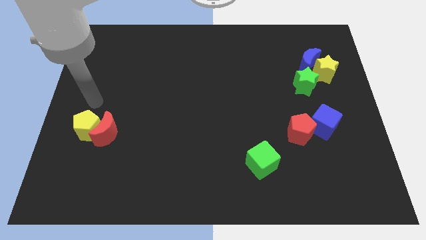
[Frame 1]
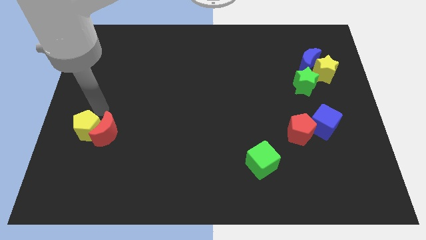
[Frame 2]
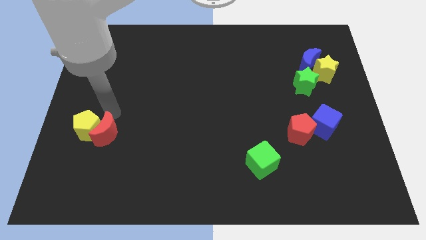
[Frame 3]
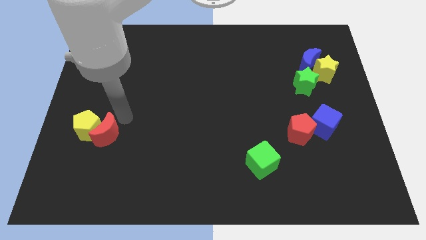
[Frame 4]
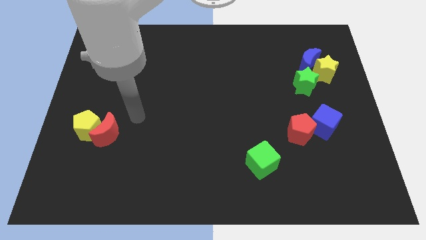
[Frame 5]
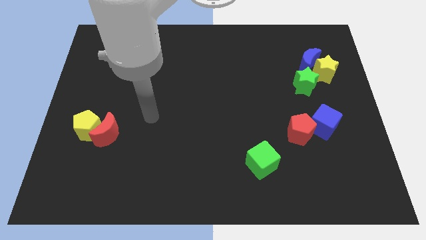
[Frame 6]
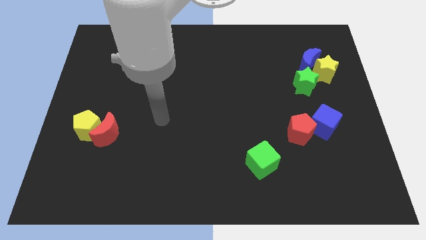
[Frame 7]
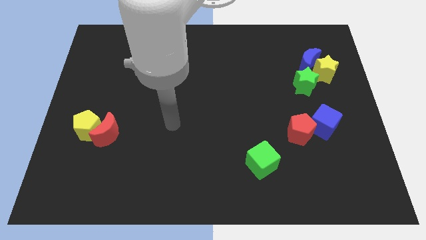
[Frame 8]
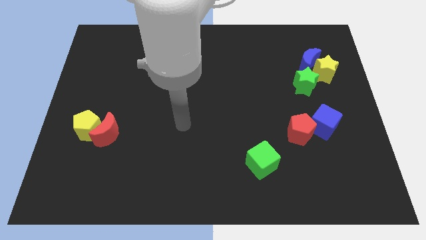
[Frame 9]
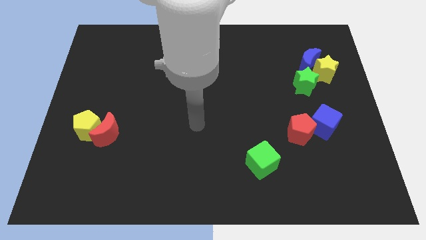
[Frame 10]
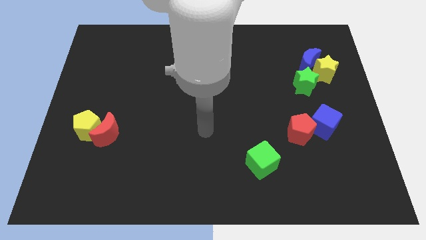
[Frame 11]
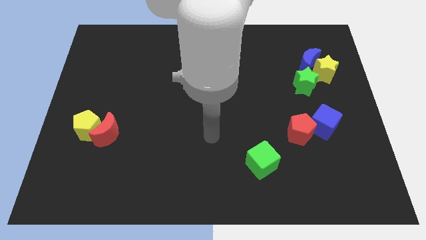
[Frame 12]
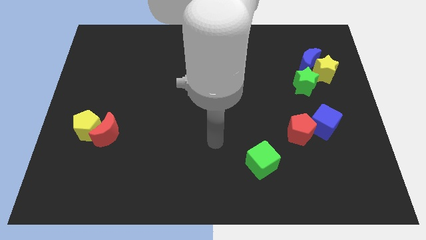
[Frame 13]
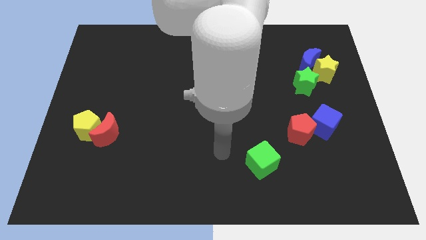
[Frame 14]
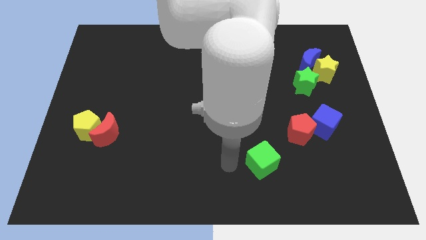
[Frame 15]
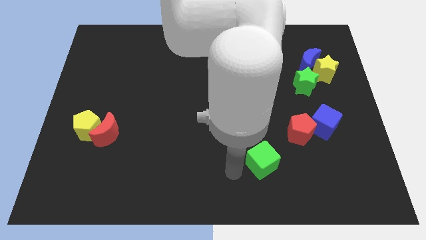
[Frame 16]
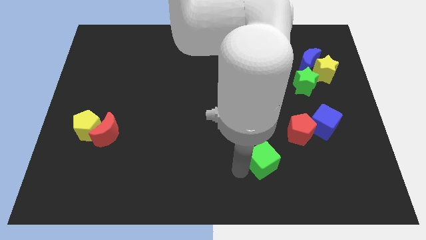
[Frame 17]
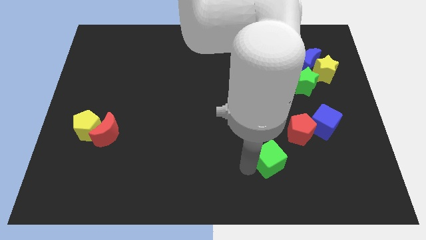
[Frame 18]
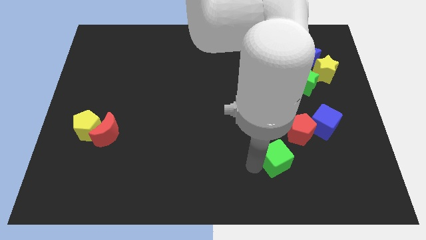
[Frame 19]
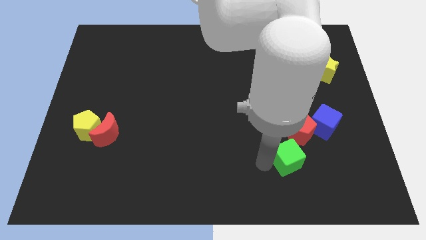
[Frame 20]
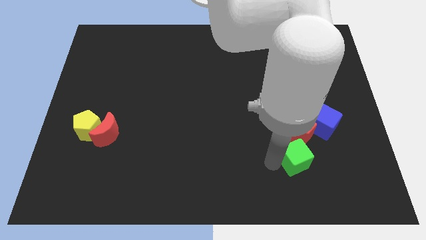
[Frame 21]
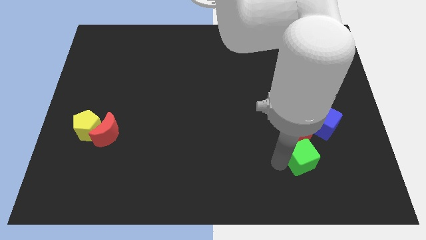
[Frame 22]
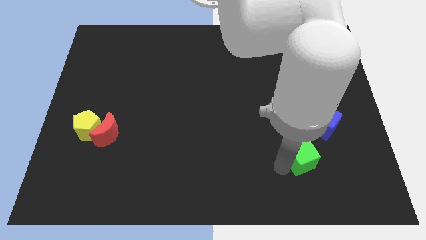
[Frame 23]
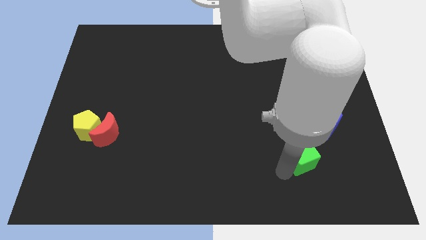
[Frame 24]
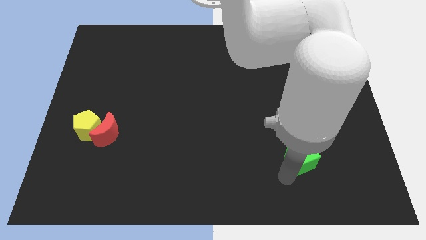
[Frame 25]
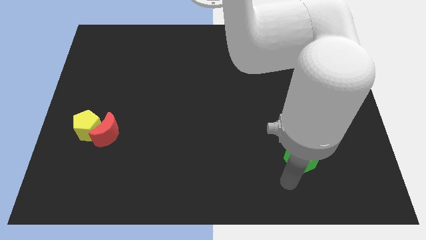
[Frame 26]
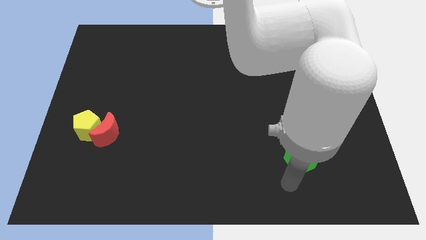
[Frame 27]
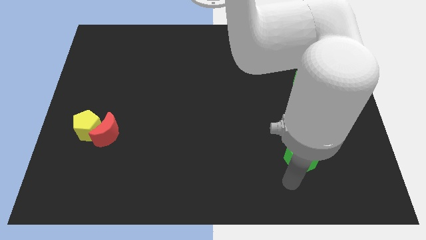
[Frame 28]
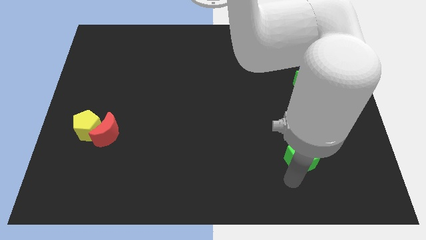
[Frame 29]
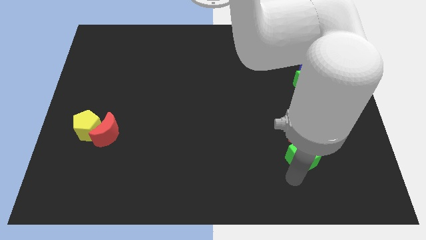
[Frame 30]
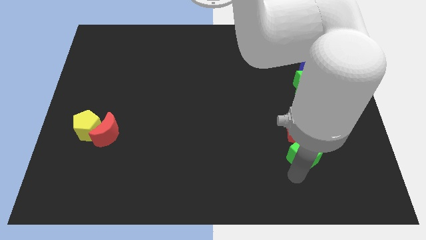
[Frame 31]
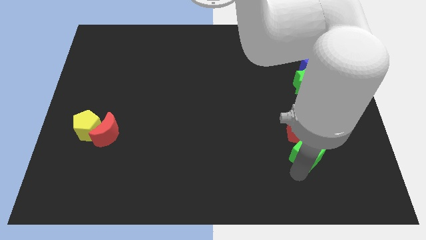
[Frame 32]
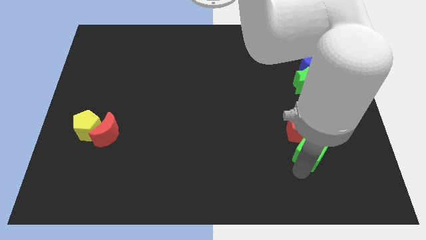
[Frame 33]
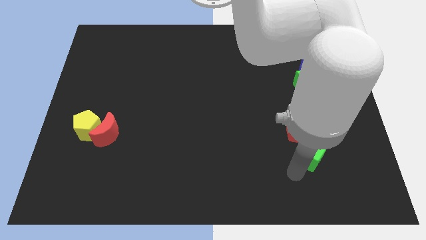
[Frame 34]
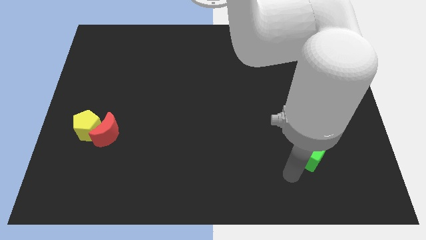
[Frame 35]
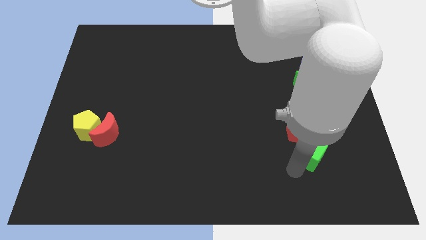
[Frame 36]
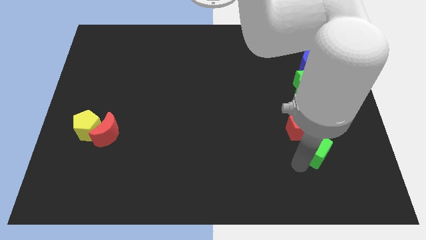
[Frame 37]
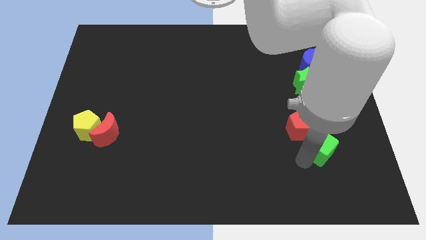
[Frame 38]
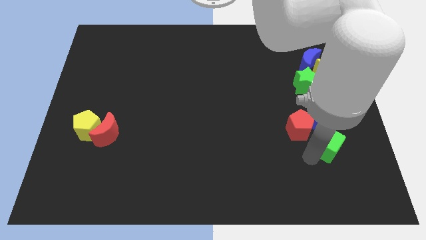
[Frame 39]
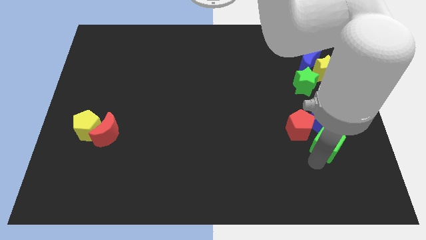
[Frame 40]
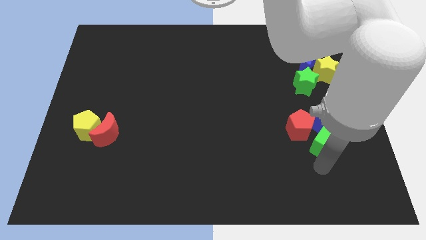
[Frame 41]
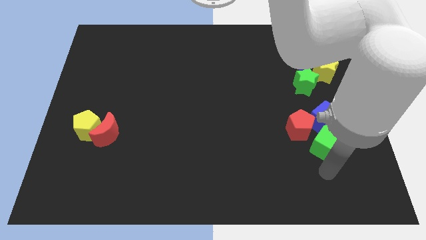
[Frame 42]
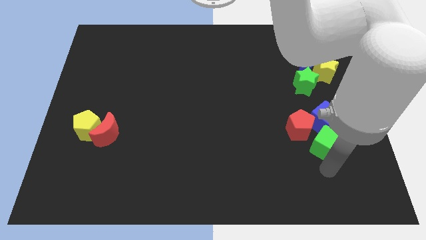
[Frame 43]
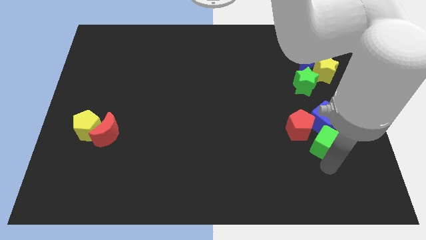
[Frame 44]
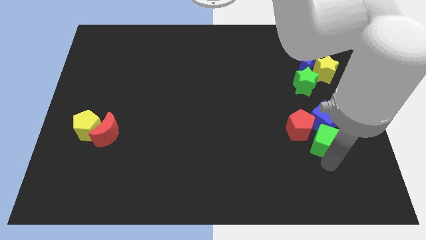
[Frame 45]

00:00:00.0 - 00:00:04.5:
move the green cube towards the blue cube

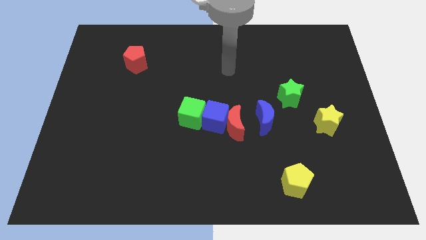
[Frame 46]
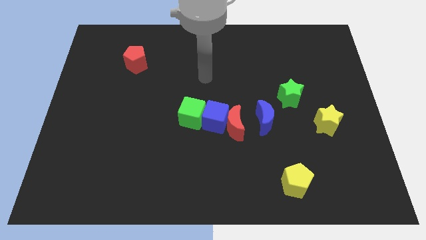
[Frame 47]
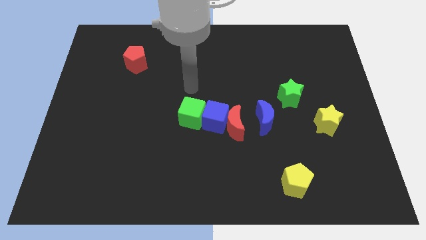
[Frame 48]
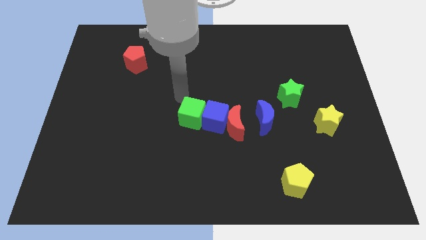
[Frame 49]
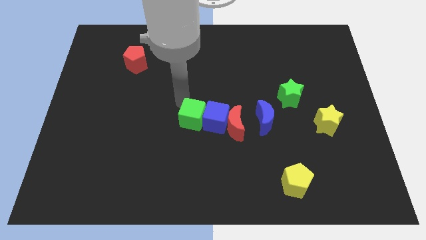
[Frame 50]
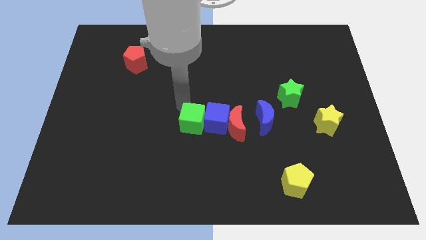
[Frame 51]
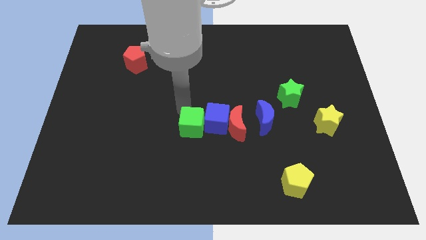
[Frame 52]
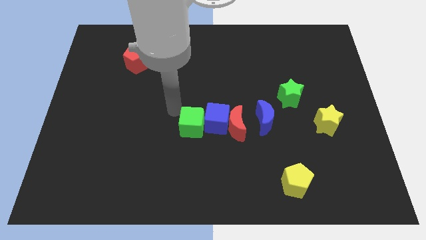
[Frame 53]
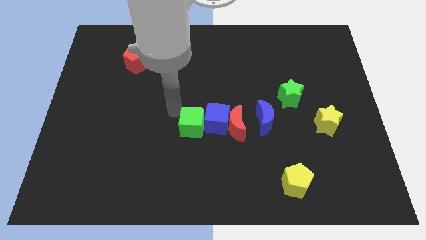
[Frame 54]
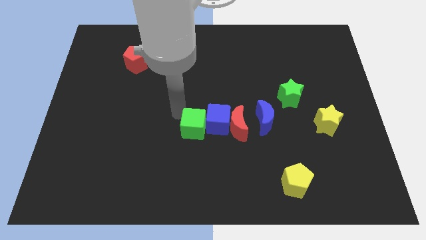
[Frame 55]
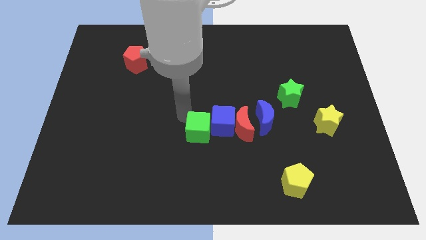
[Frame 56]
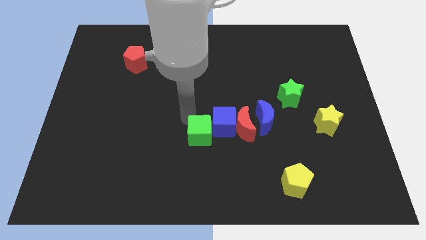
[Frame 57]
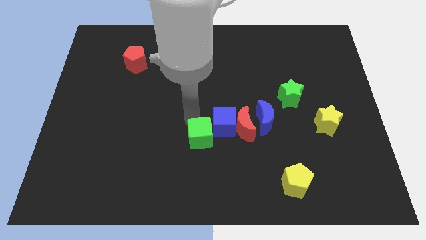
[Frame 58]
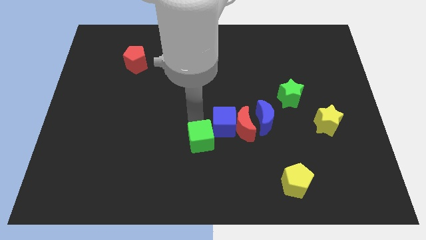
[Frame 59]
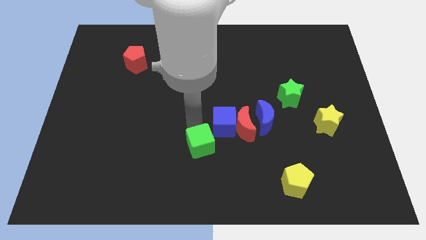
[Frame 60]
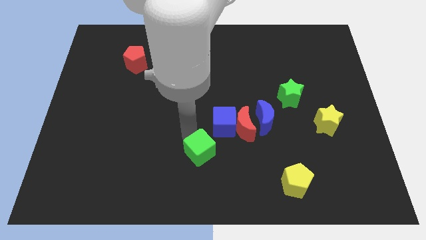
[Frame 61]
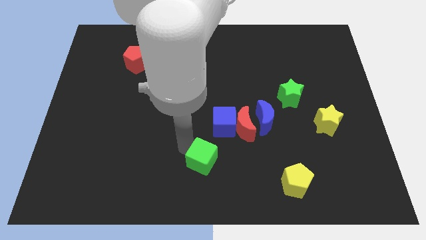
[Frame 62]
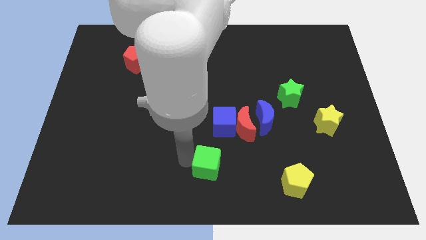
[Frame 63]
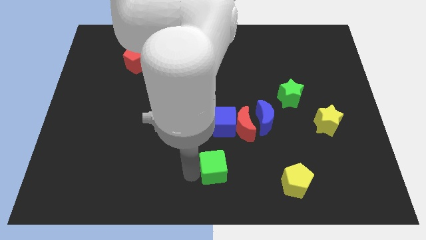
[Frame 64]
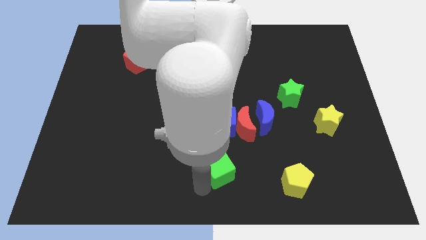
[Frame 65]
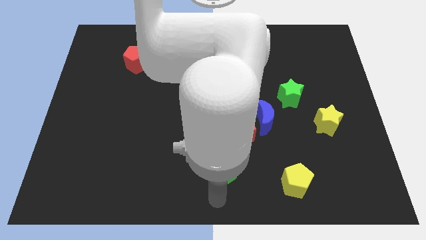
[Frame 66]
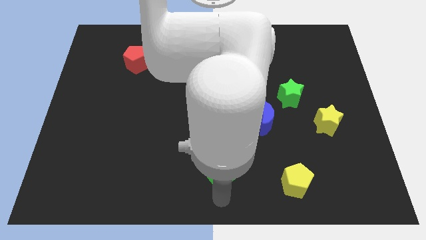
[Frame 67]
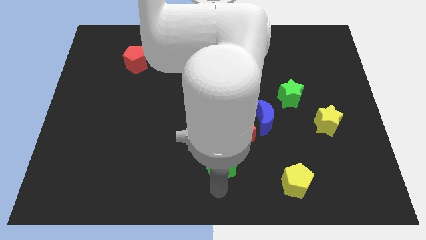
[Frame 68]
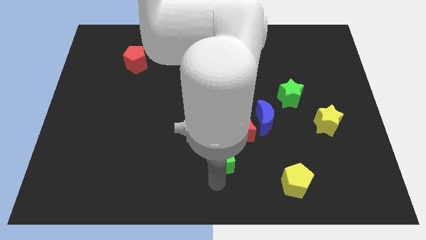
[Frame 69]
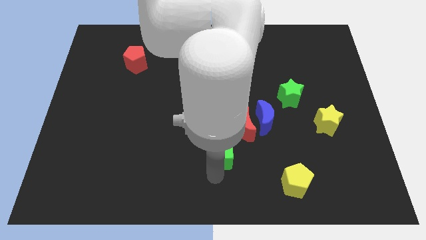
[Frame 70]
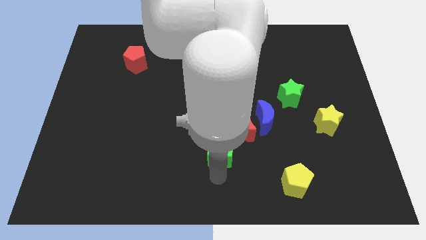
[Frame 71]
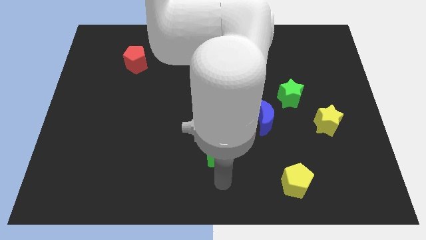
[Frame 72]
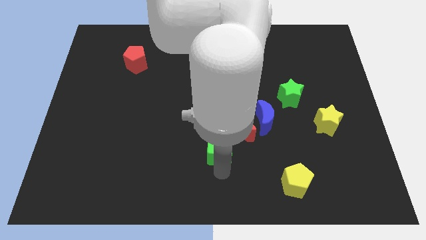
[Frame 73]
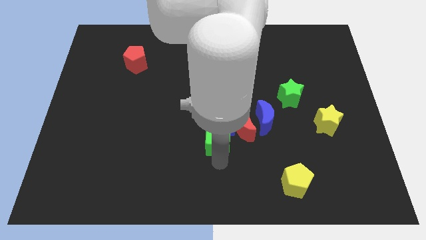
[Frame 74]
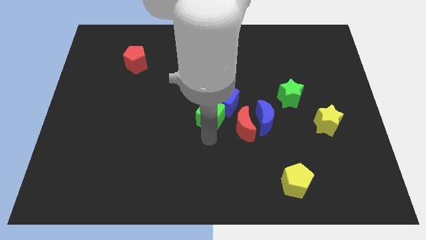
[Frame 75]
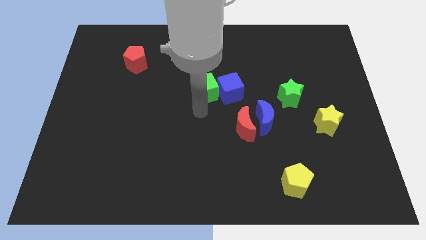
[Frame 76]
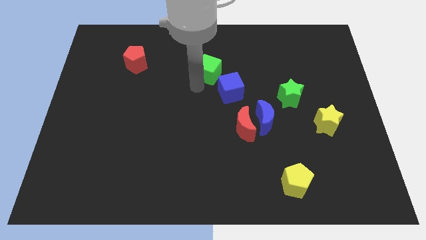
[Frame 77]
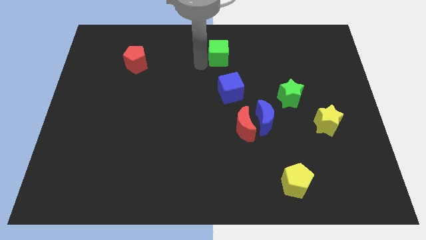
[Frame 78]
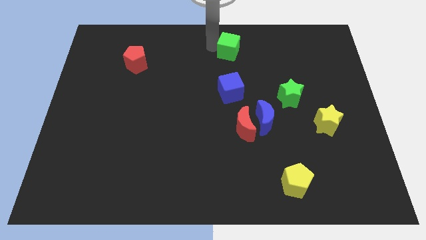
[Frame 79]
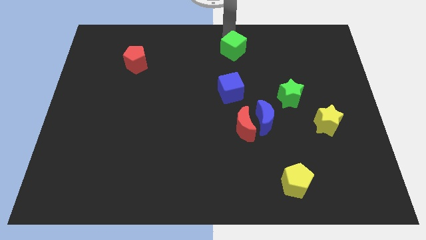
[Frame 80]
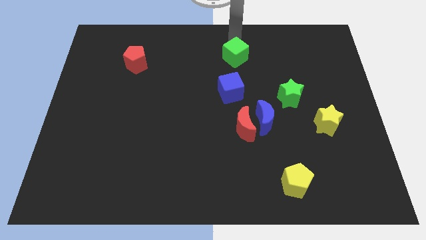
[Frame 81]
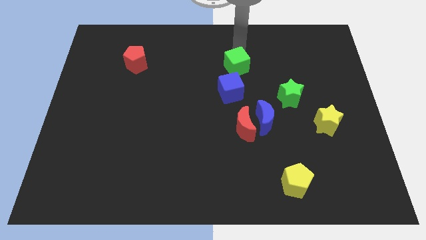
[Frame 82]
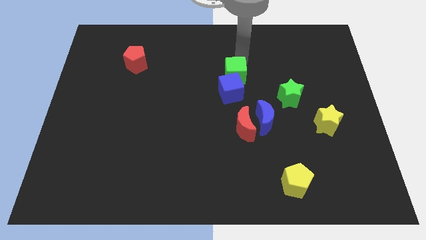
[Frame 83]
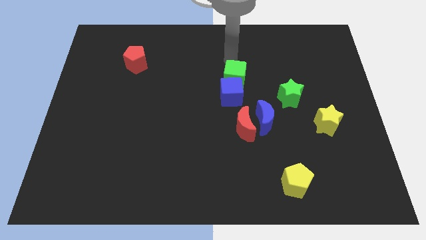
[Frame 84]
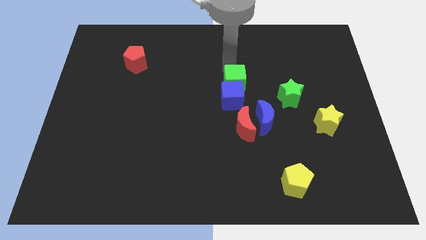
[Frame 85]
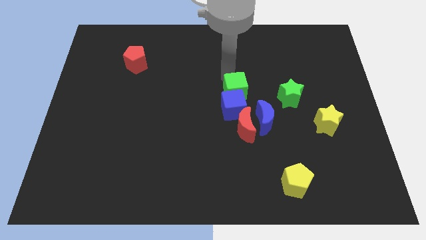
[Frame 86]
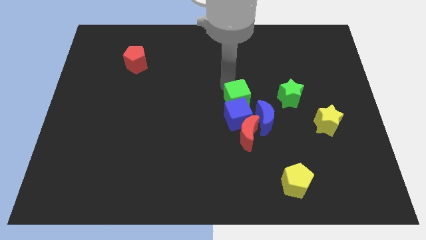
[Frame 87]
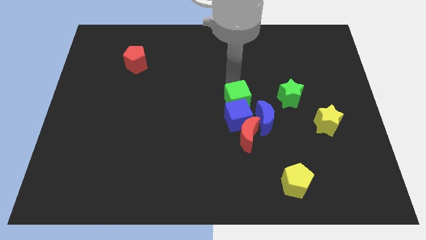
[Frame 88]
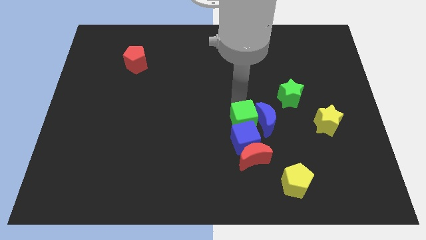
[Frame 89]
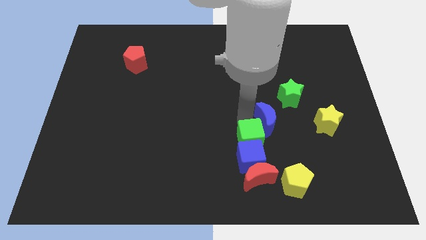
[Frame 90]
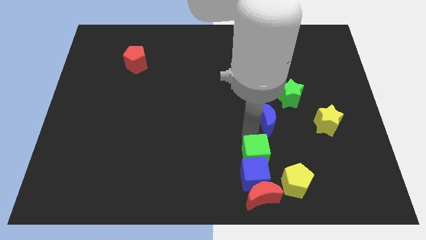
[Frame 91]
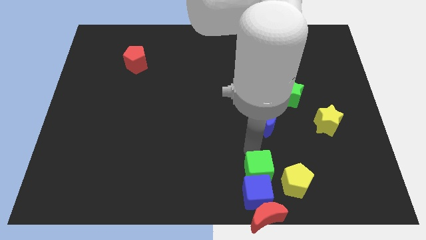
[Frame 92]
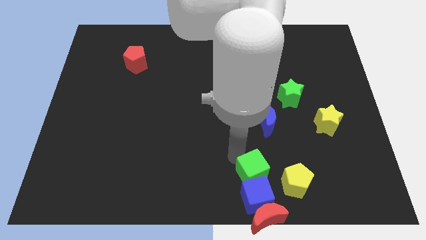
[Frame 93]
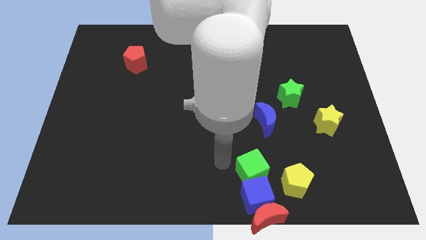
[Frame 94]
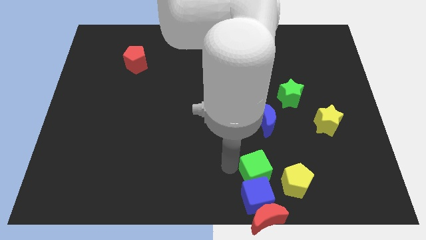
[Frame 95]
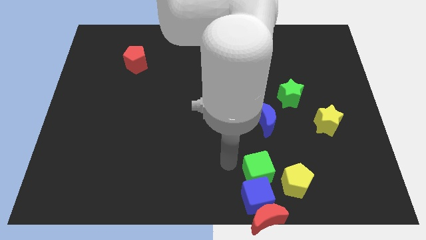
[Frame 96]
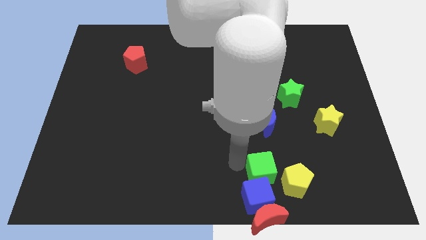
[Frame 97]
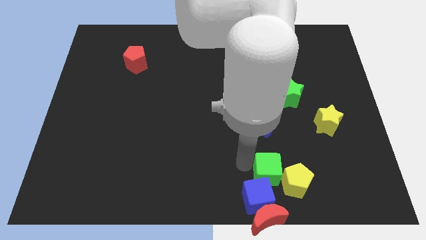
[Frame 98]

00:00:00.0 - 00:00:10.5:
put the green cube close to the yellow pentagon
